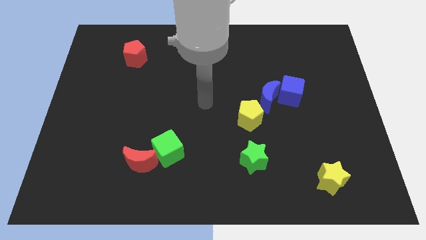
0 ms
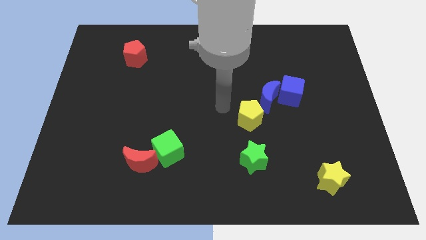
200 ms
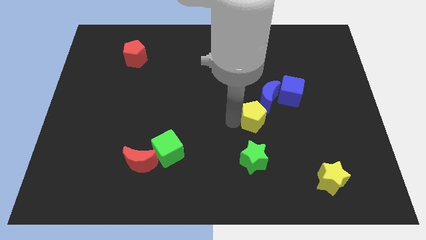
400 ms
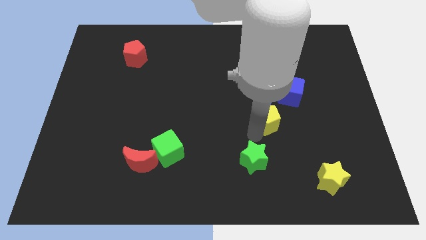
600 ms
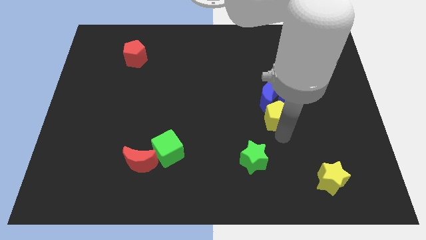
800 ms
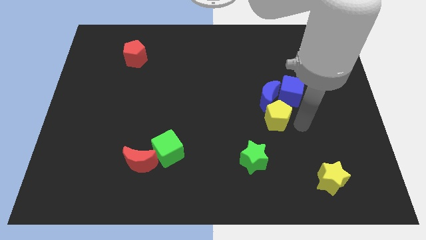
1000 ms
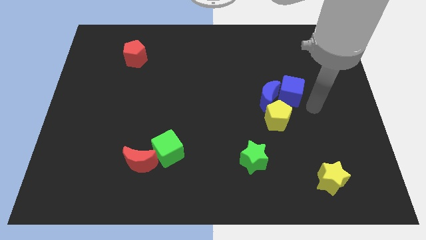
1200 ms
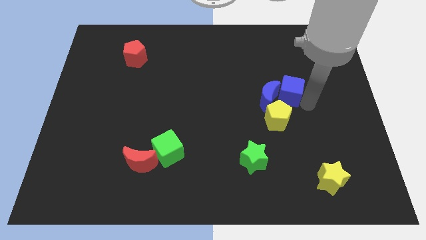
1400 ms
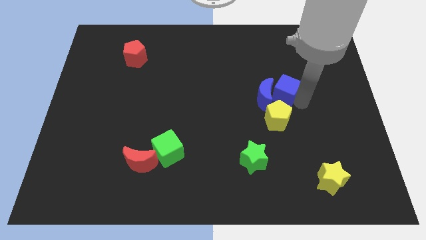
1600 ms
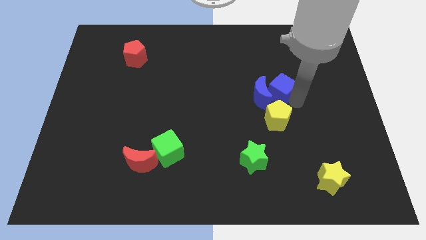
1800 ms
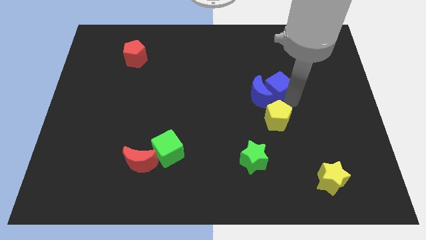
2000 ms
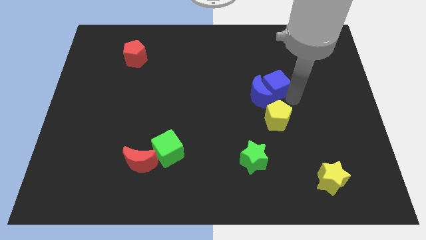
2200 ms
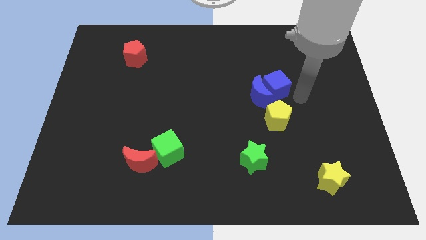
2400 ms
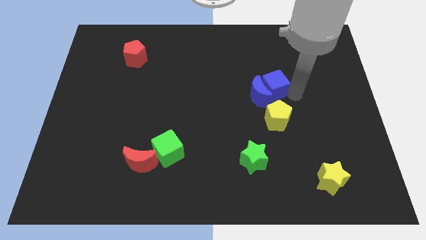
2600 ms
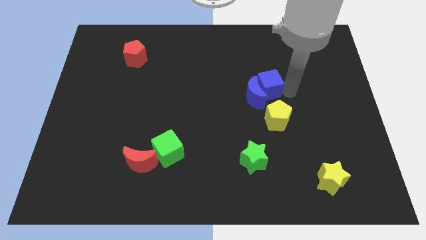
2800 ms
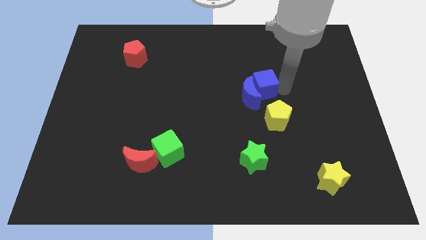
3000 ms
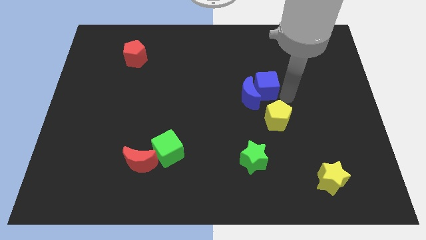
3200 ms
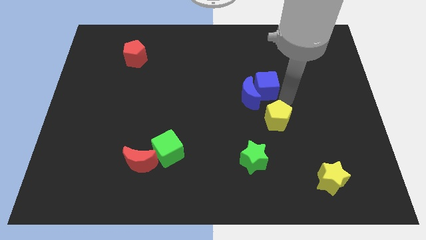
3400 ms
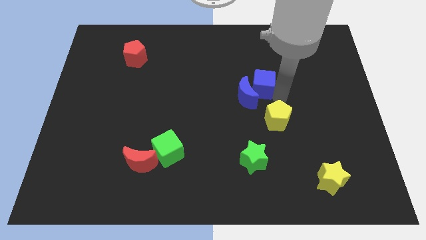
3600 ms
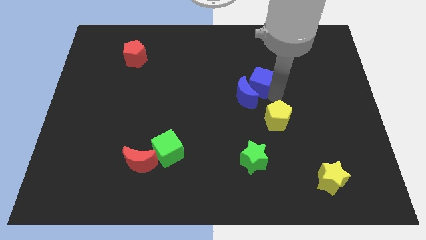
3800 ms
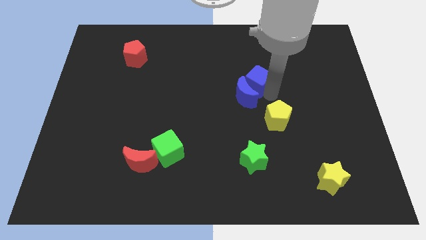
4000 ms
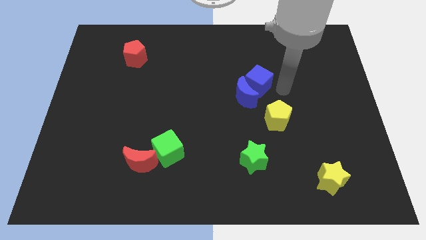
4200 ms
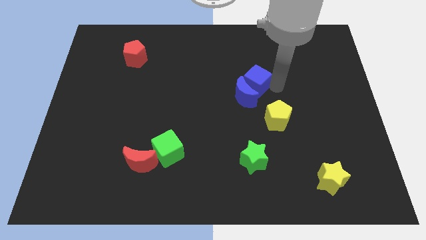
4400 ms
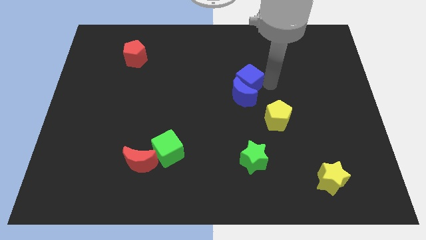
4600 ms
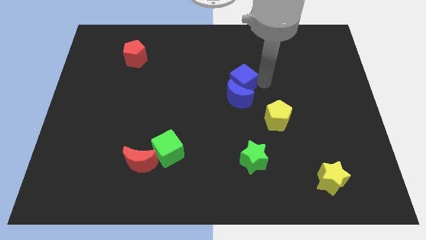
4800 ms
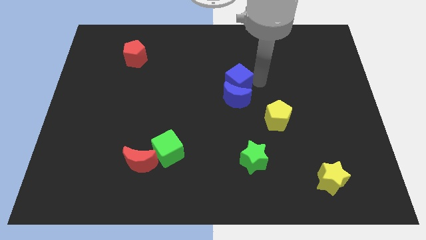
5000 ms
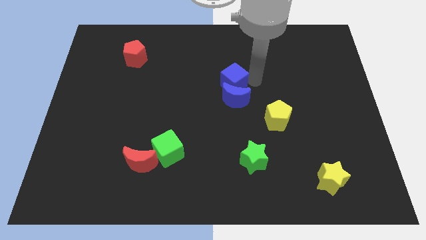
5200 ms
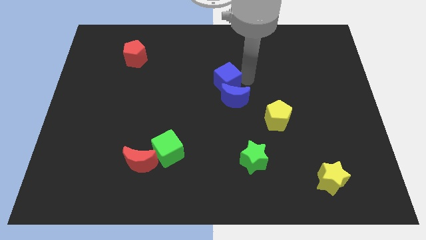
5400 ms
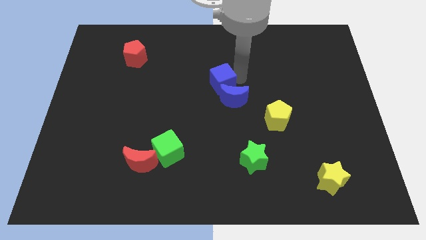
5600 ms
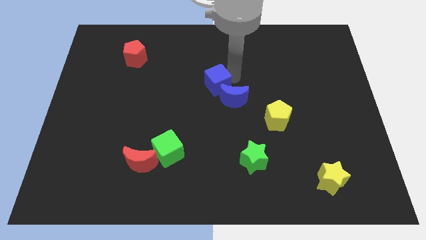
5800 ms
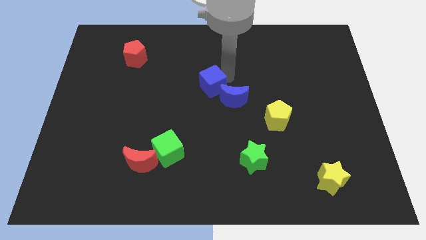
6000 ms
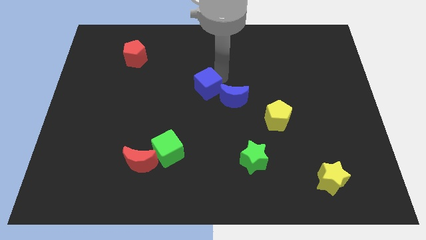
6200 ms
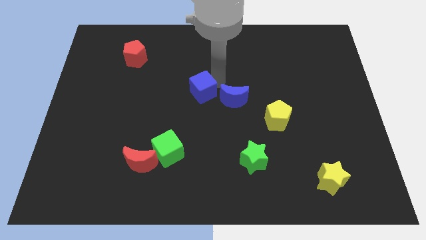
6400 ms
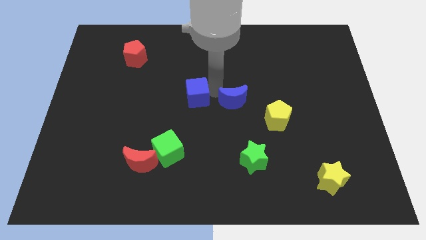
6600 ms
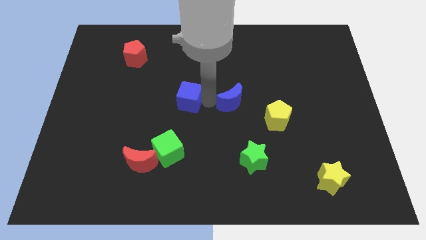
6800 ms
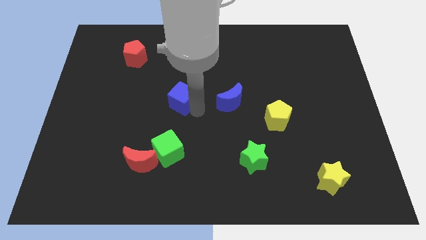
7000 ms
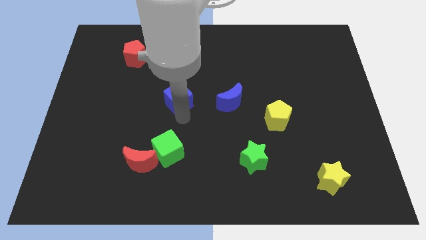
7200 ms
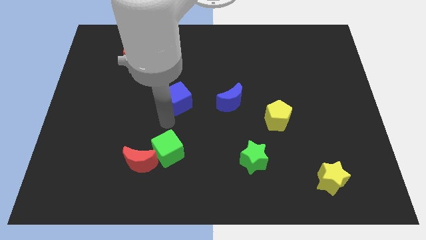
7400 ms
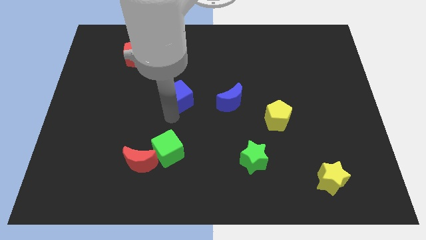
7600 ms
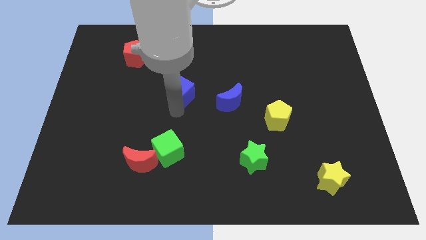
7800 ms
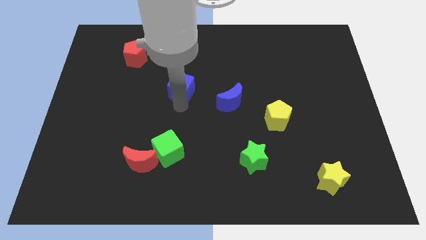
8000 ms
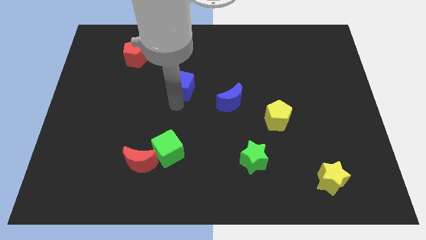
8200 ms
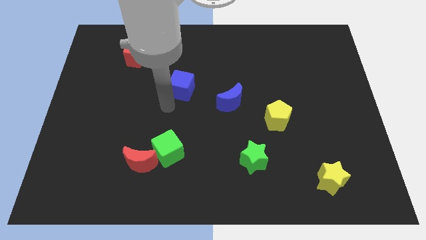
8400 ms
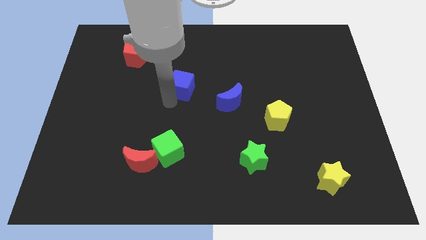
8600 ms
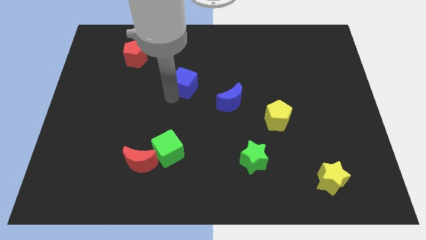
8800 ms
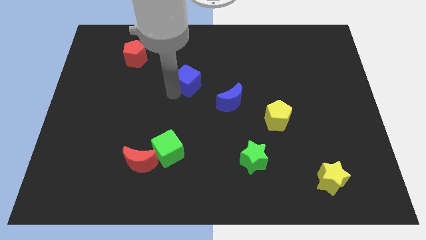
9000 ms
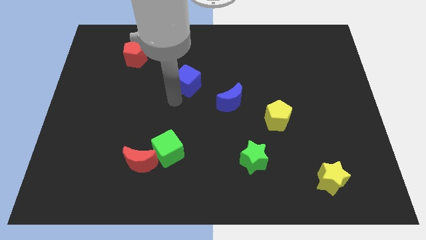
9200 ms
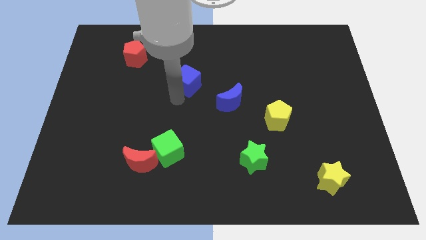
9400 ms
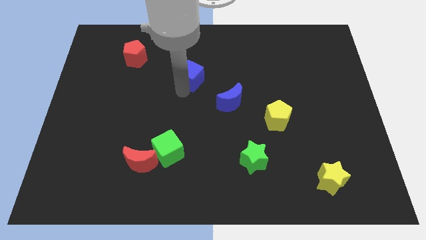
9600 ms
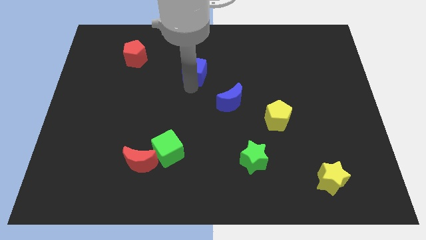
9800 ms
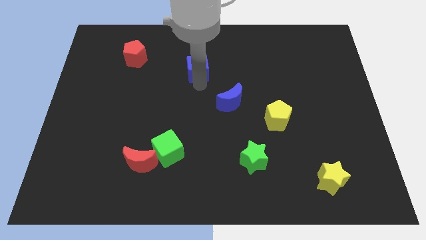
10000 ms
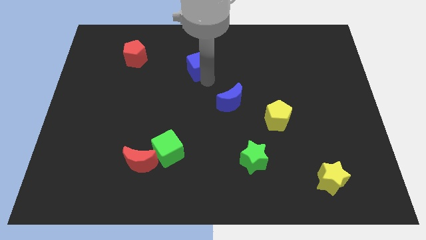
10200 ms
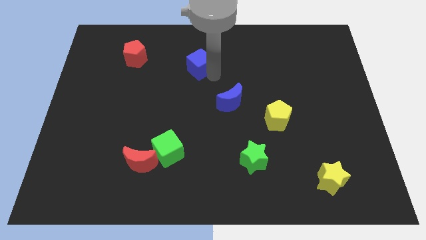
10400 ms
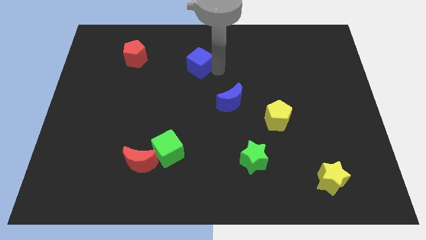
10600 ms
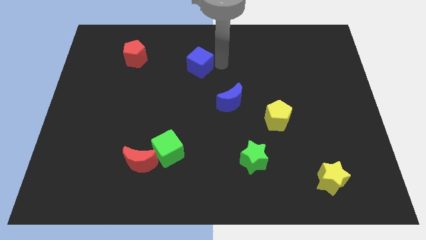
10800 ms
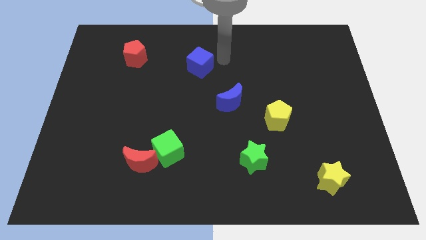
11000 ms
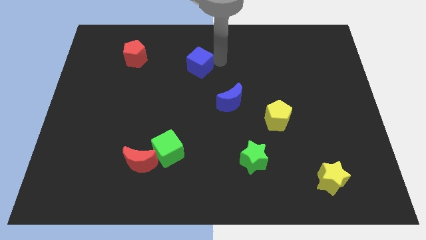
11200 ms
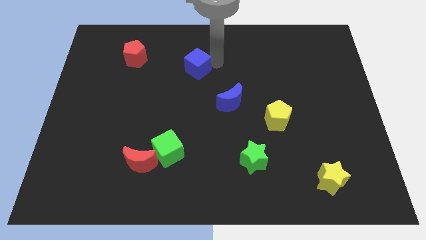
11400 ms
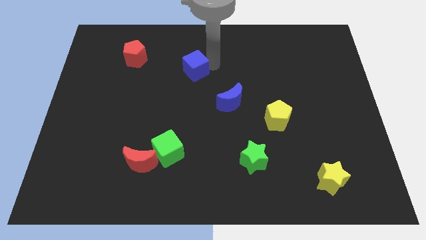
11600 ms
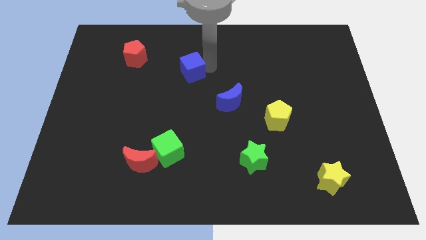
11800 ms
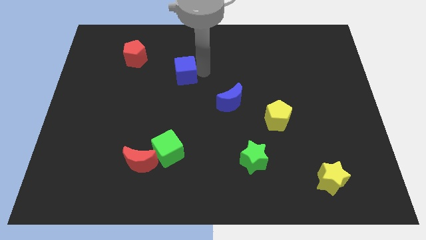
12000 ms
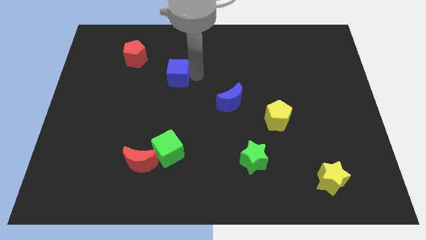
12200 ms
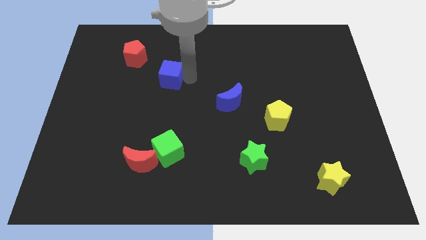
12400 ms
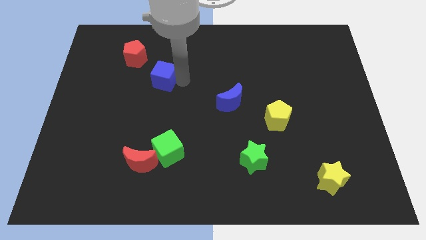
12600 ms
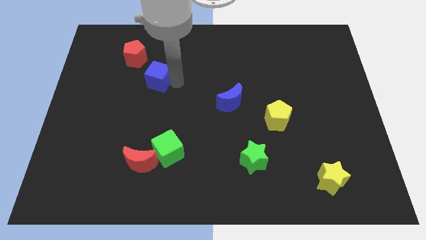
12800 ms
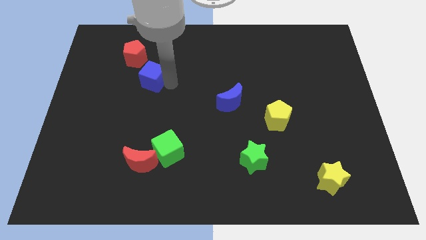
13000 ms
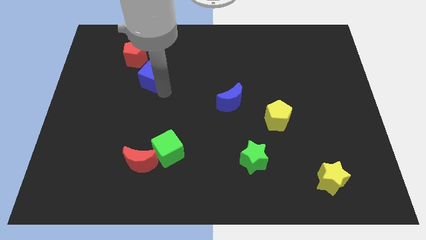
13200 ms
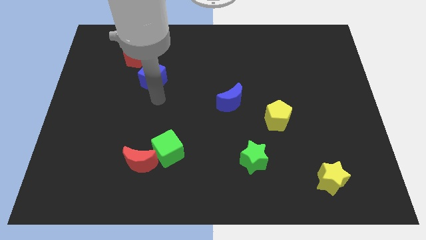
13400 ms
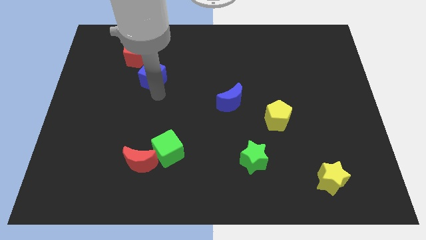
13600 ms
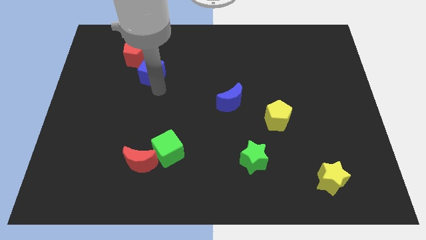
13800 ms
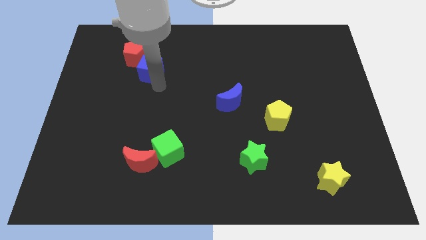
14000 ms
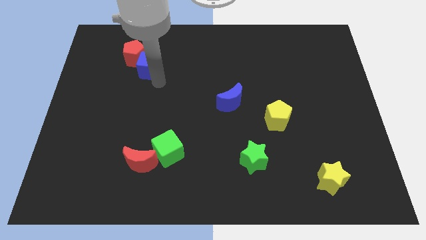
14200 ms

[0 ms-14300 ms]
move the blue cube towards the red pentagon
